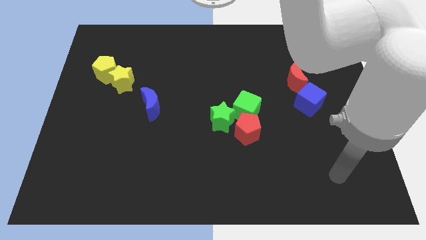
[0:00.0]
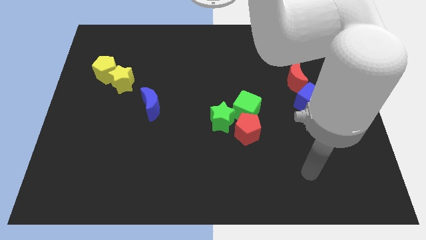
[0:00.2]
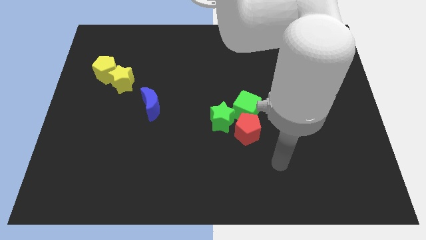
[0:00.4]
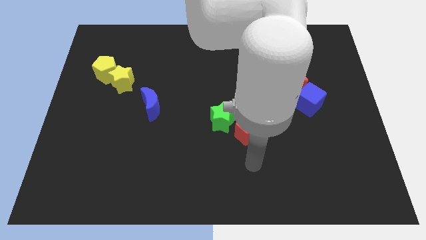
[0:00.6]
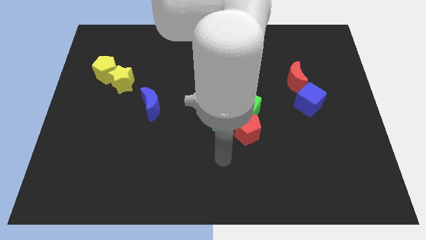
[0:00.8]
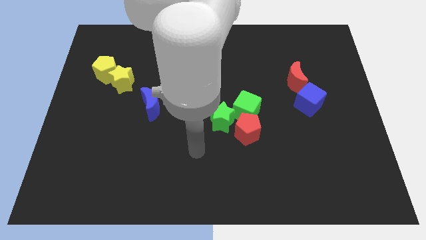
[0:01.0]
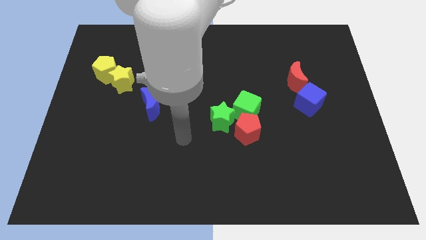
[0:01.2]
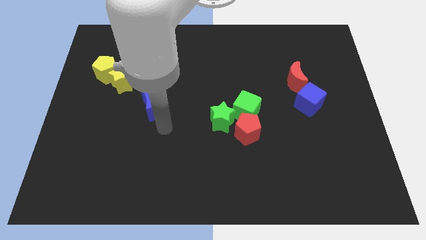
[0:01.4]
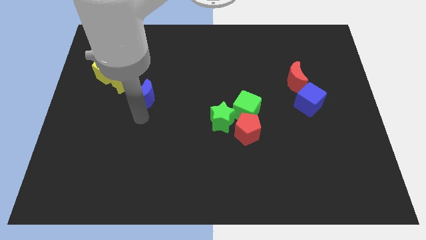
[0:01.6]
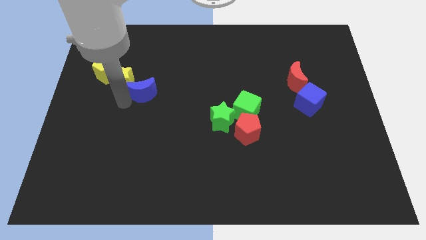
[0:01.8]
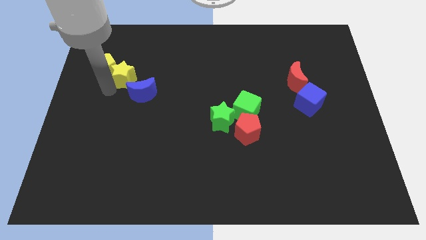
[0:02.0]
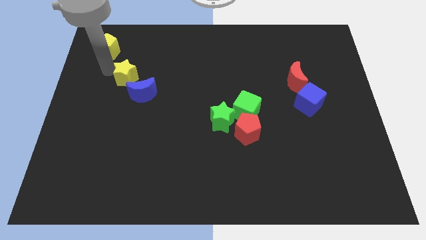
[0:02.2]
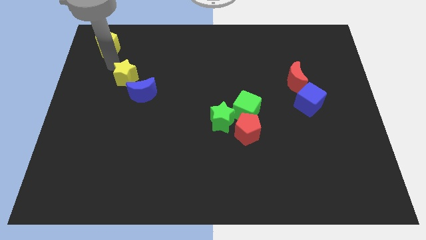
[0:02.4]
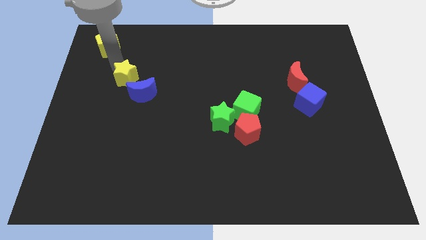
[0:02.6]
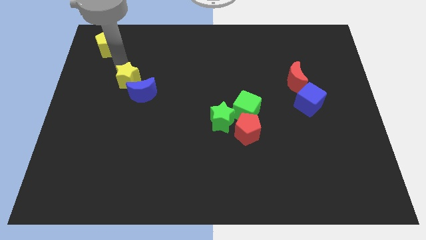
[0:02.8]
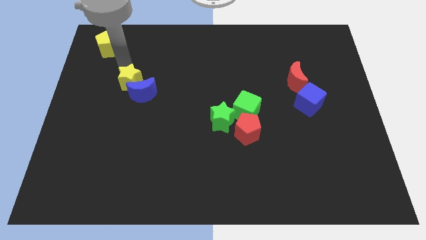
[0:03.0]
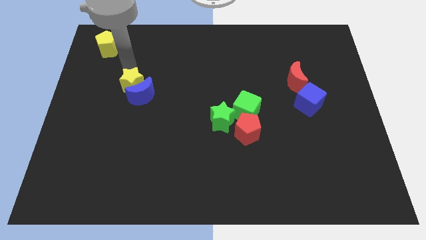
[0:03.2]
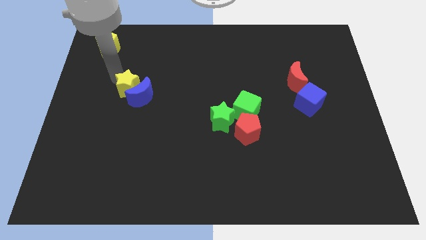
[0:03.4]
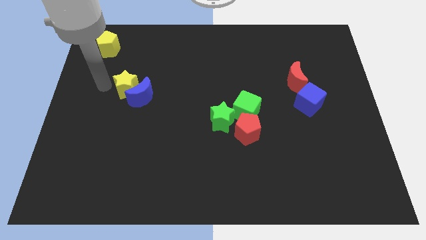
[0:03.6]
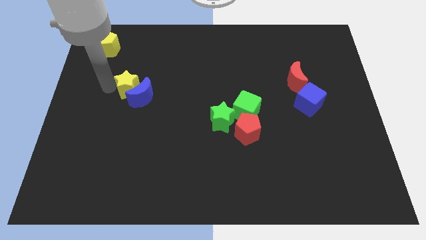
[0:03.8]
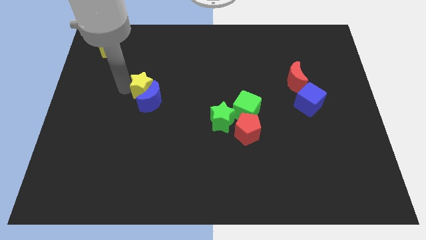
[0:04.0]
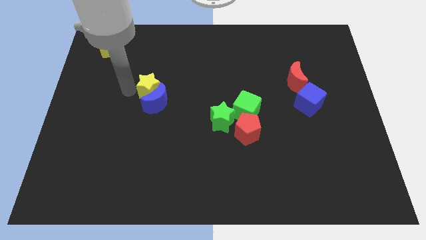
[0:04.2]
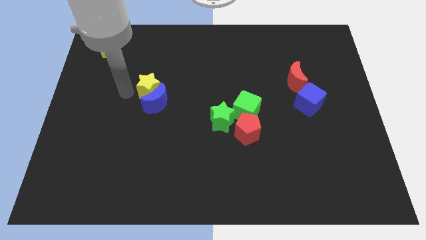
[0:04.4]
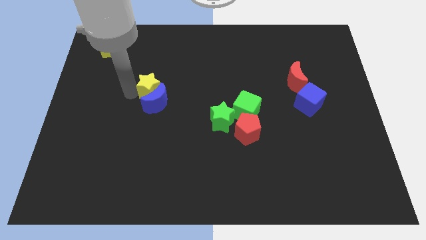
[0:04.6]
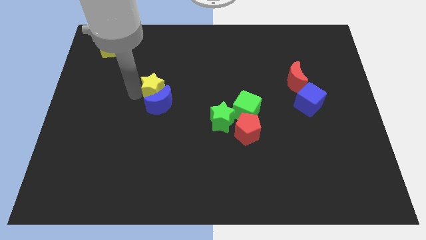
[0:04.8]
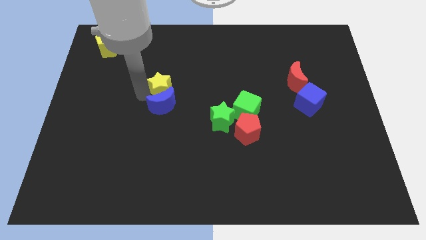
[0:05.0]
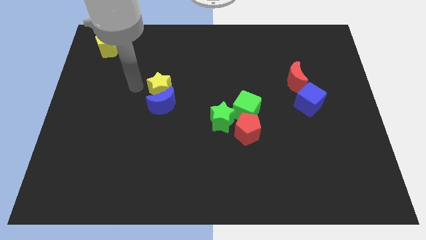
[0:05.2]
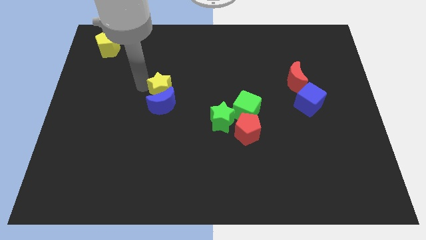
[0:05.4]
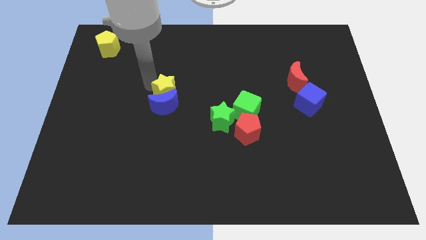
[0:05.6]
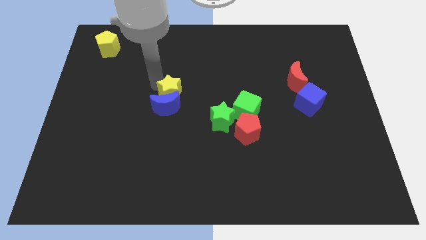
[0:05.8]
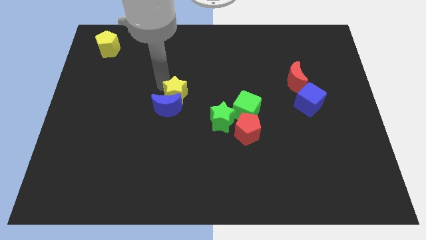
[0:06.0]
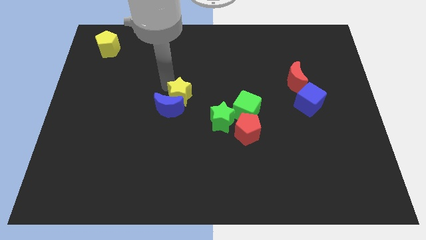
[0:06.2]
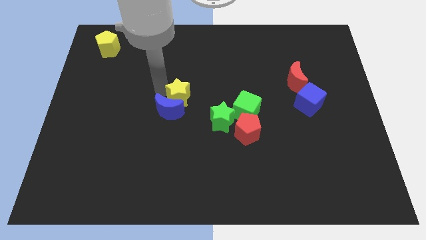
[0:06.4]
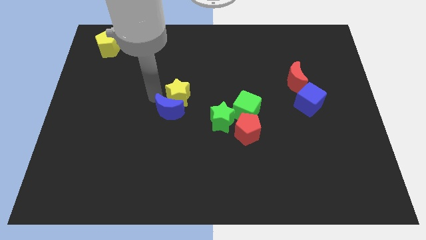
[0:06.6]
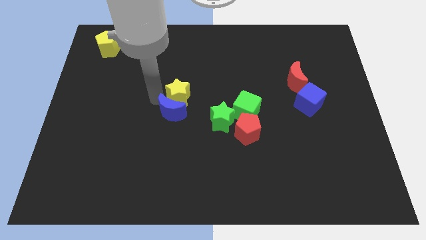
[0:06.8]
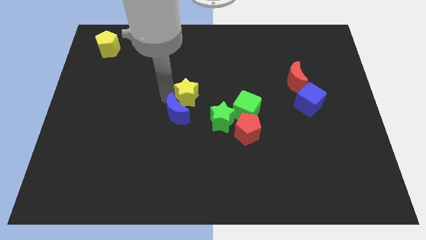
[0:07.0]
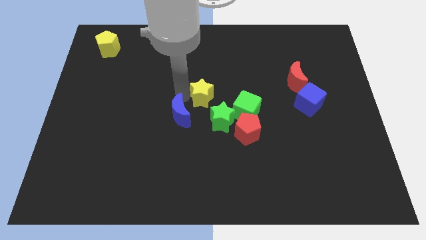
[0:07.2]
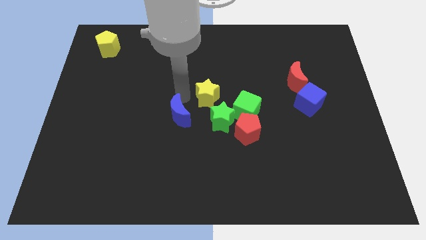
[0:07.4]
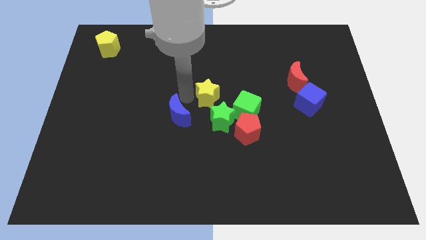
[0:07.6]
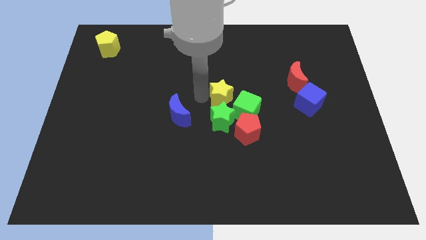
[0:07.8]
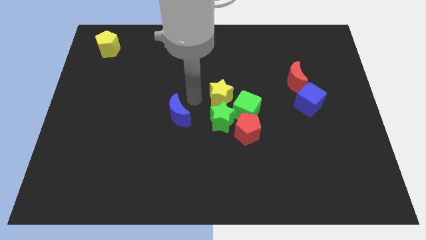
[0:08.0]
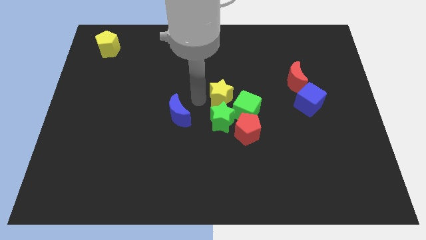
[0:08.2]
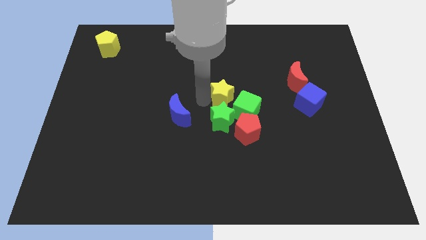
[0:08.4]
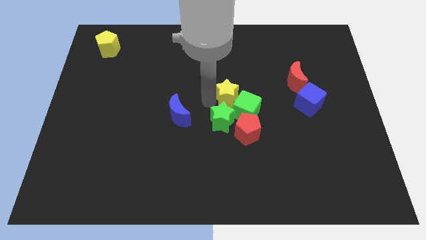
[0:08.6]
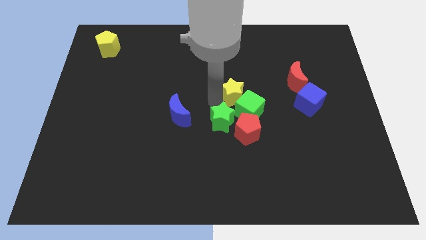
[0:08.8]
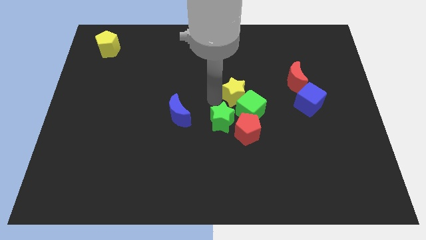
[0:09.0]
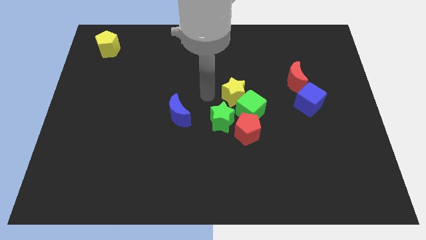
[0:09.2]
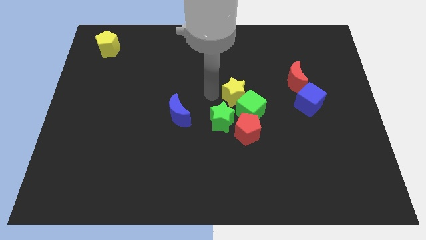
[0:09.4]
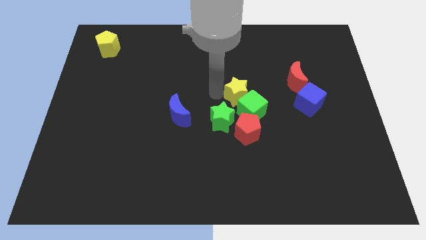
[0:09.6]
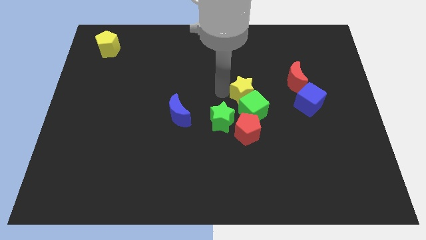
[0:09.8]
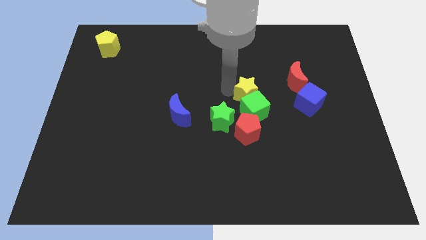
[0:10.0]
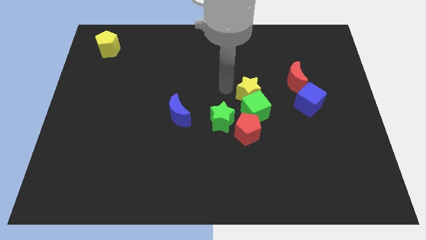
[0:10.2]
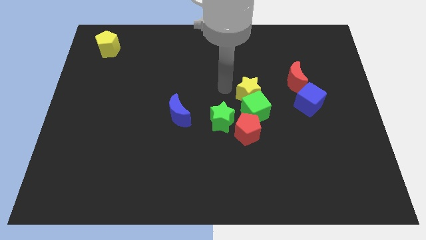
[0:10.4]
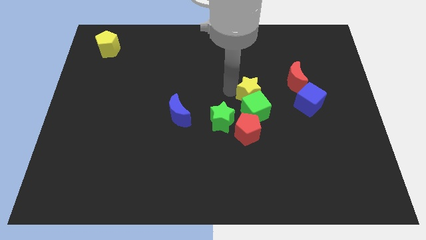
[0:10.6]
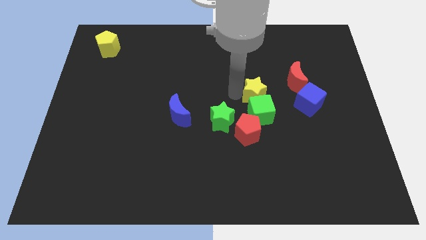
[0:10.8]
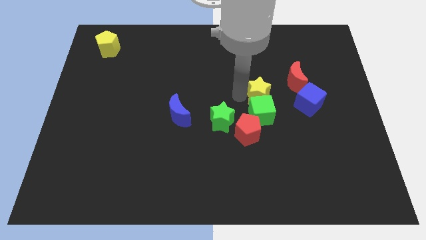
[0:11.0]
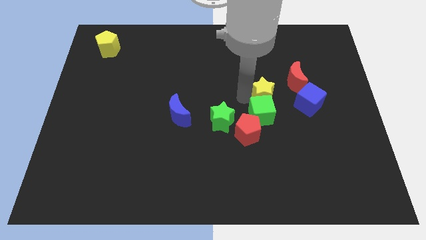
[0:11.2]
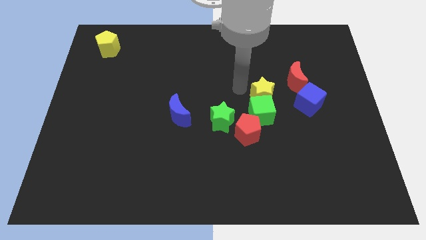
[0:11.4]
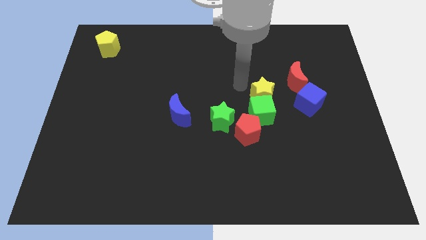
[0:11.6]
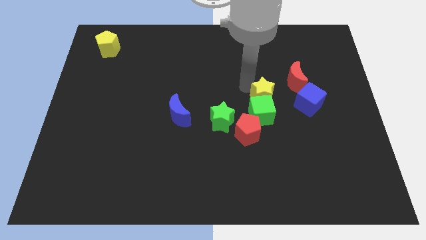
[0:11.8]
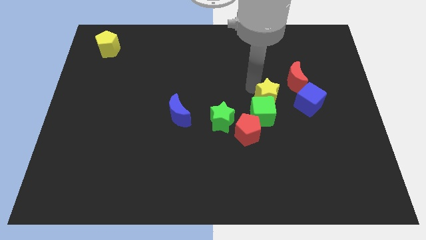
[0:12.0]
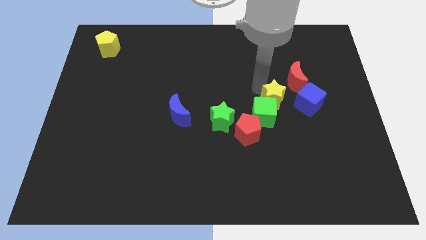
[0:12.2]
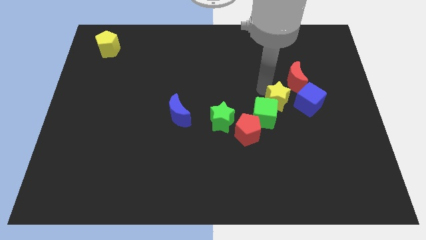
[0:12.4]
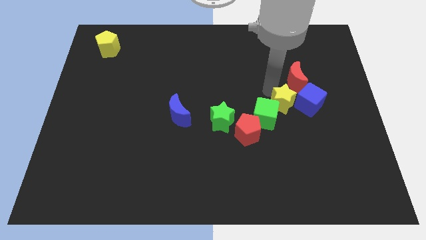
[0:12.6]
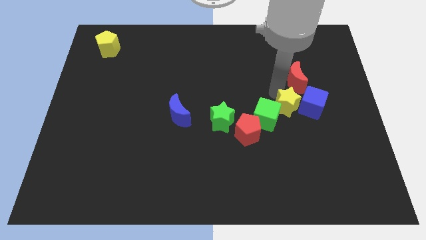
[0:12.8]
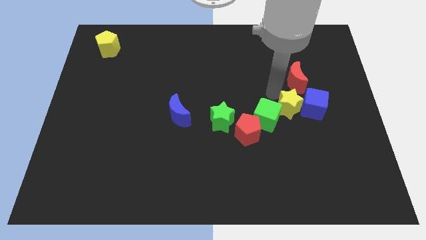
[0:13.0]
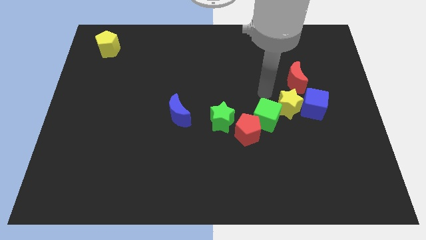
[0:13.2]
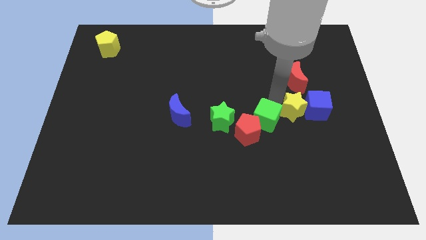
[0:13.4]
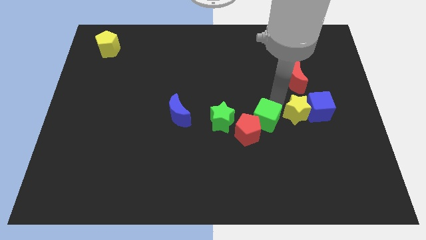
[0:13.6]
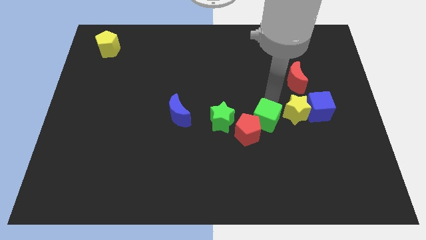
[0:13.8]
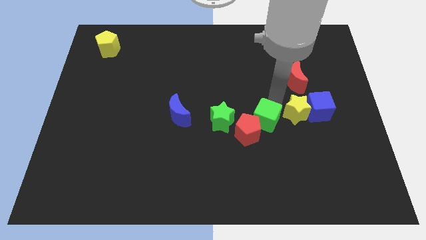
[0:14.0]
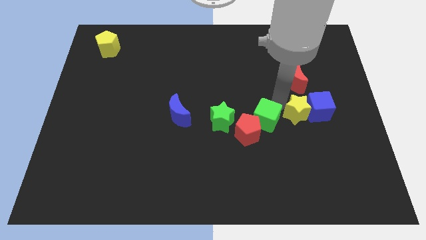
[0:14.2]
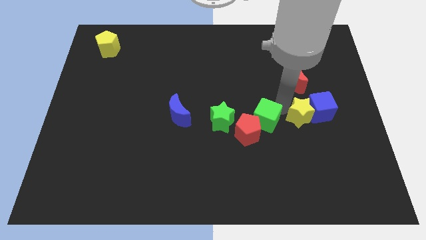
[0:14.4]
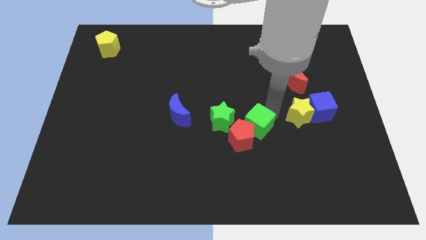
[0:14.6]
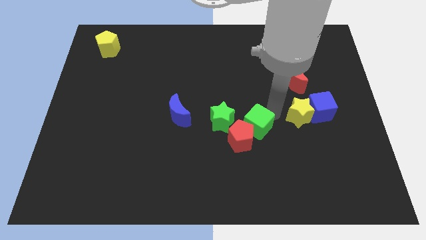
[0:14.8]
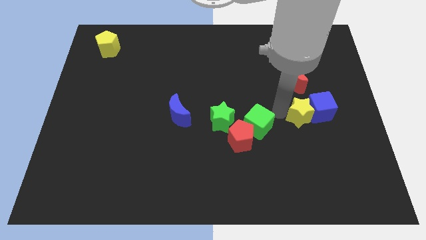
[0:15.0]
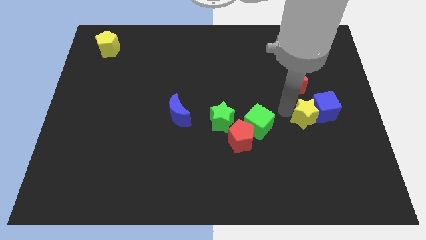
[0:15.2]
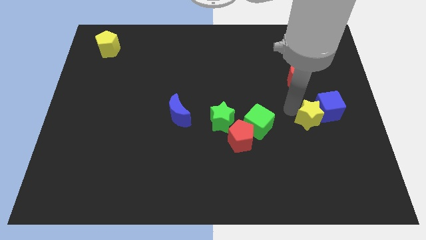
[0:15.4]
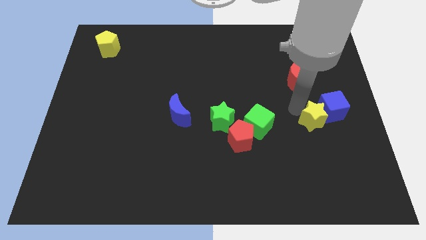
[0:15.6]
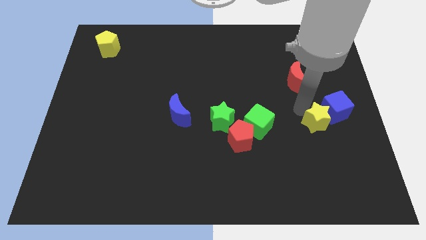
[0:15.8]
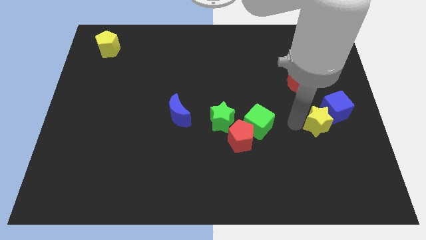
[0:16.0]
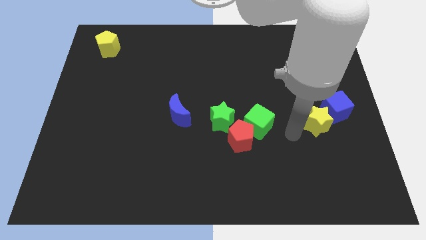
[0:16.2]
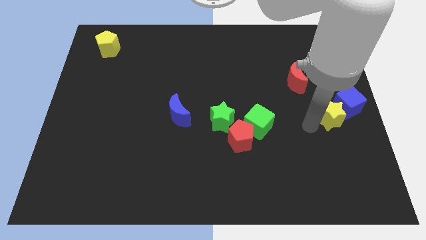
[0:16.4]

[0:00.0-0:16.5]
put the yellow star to the right side
